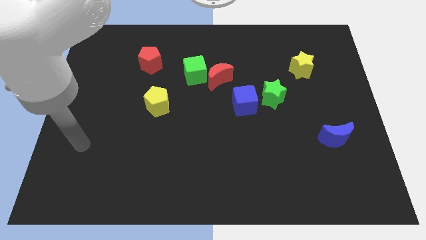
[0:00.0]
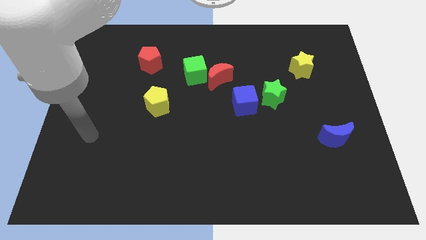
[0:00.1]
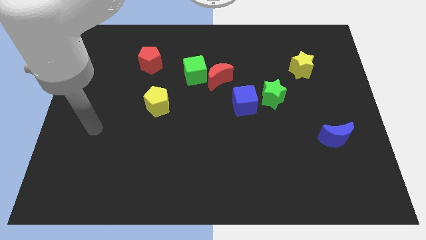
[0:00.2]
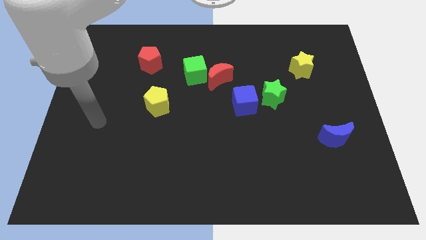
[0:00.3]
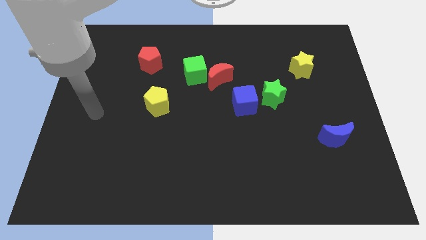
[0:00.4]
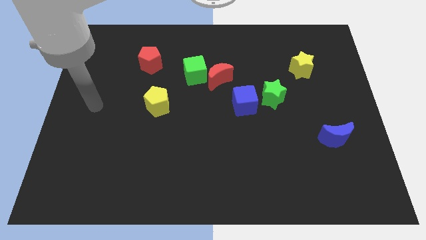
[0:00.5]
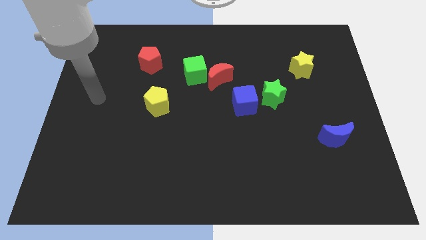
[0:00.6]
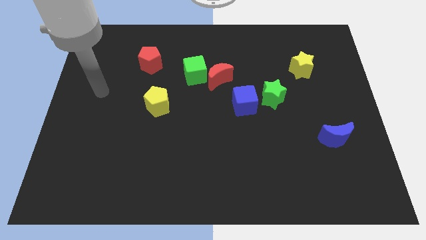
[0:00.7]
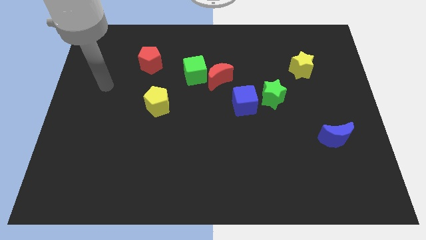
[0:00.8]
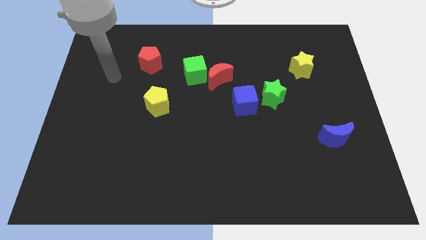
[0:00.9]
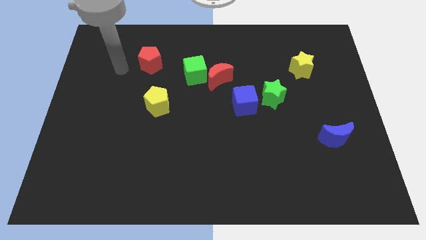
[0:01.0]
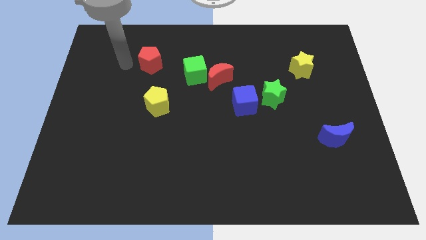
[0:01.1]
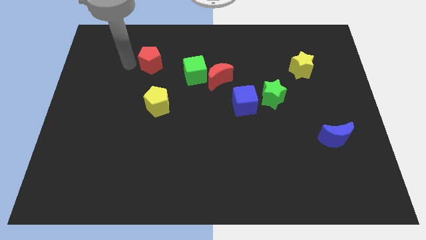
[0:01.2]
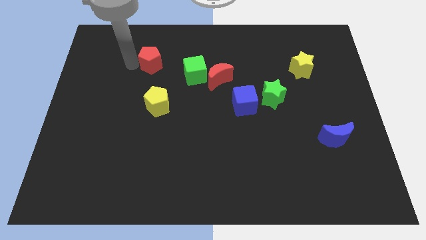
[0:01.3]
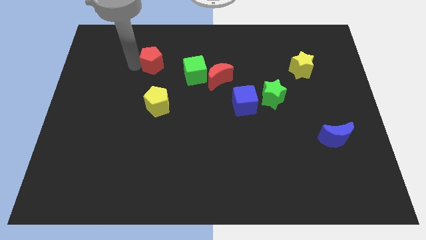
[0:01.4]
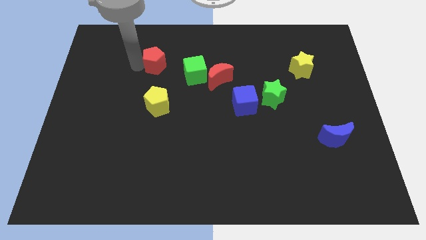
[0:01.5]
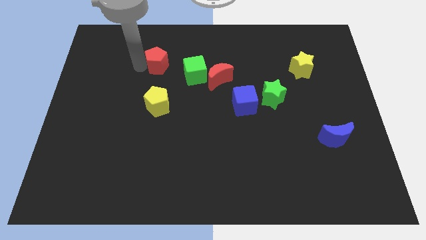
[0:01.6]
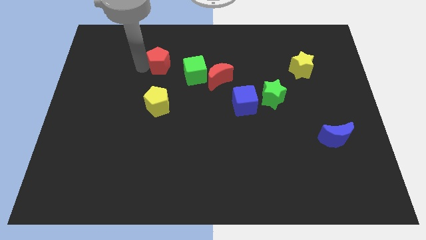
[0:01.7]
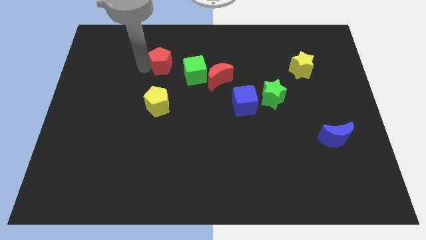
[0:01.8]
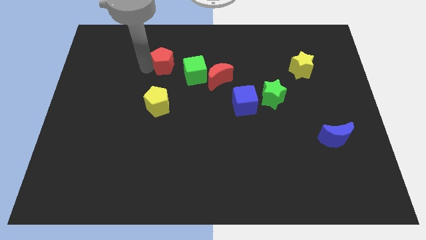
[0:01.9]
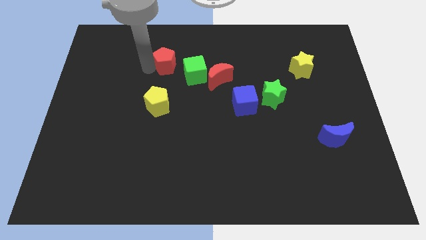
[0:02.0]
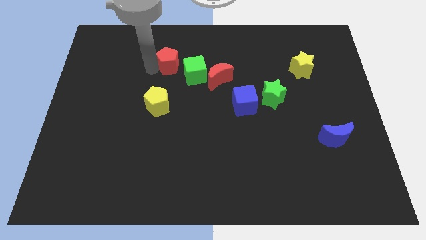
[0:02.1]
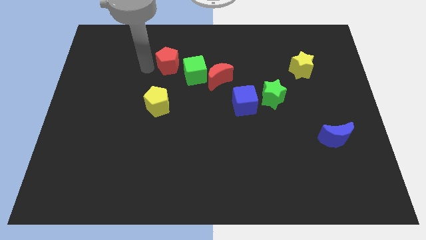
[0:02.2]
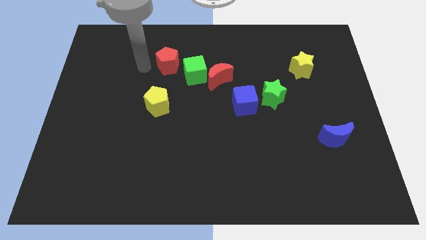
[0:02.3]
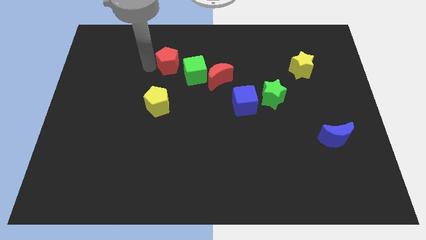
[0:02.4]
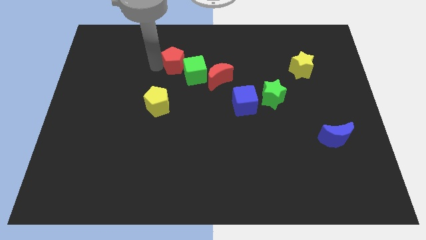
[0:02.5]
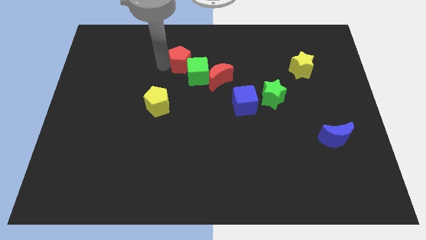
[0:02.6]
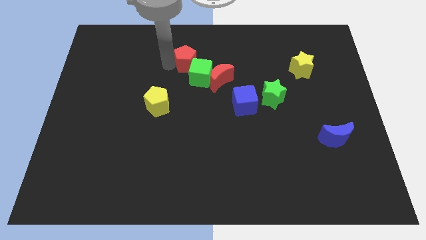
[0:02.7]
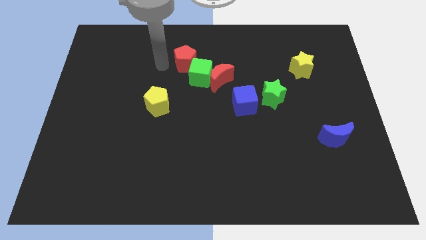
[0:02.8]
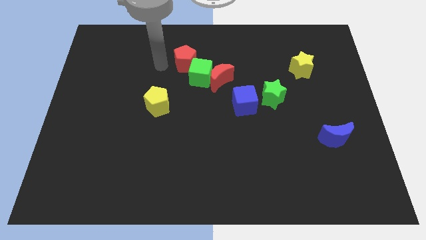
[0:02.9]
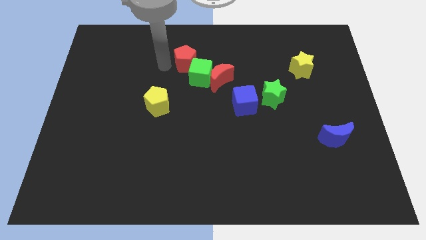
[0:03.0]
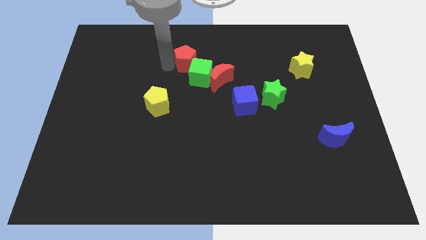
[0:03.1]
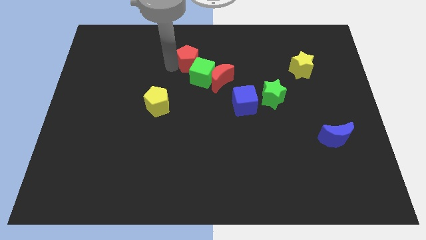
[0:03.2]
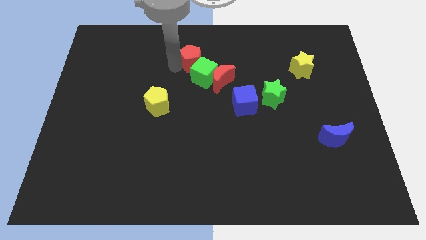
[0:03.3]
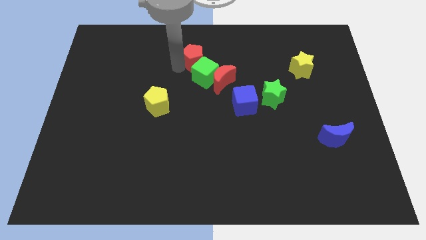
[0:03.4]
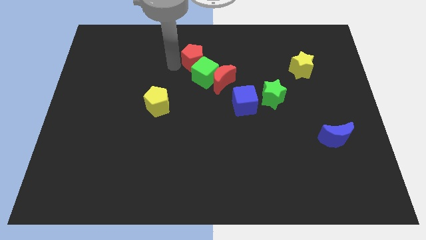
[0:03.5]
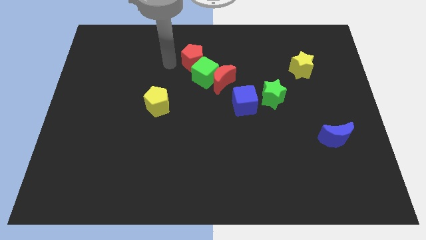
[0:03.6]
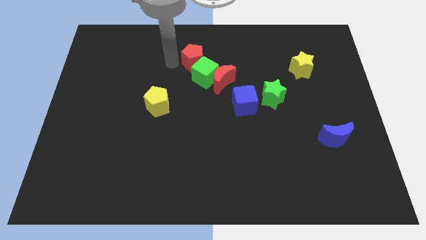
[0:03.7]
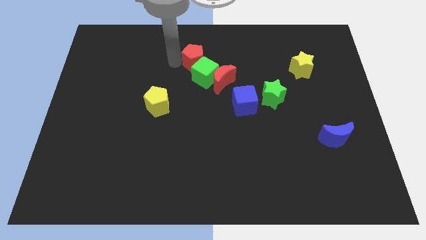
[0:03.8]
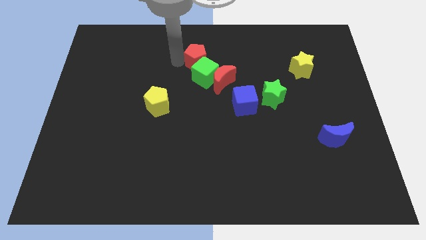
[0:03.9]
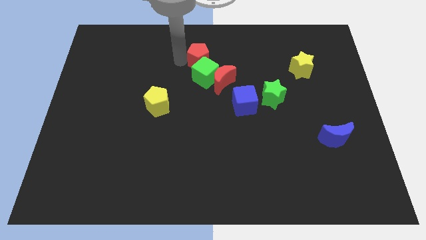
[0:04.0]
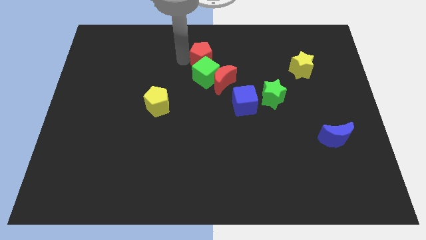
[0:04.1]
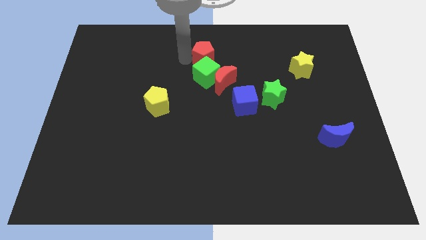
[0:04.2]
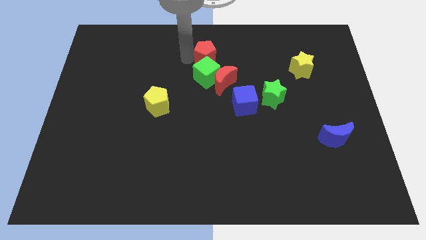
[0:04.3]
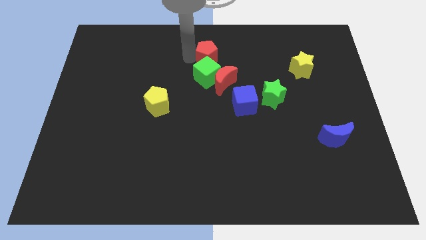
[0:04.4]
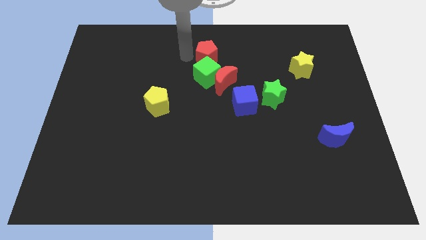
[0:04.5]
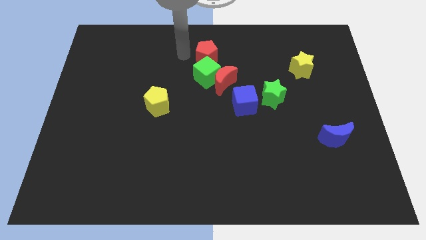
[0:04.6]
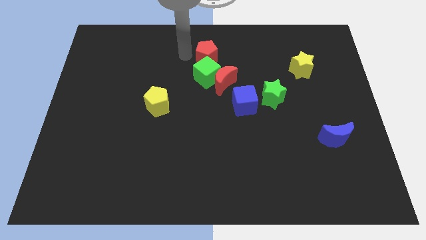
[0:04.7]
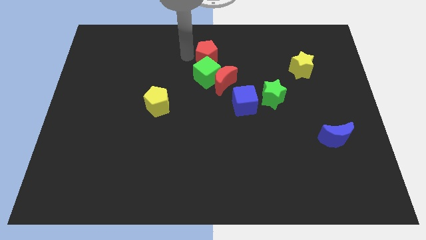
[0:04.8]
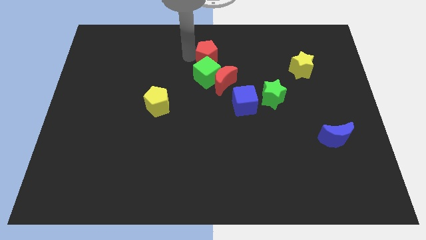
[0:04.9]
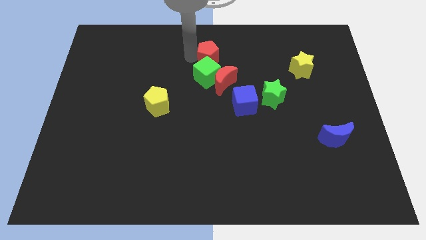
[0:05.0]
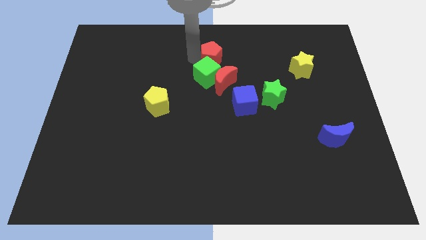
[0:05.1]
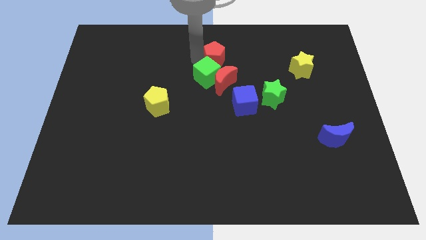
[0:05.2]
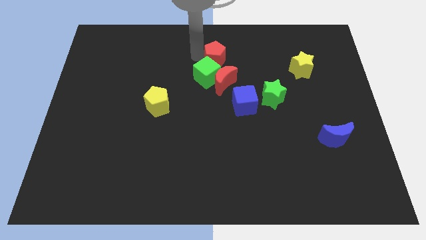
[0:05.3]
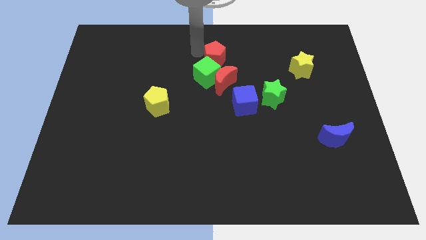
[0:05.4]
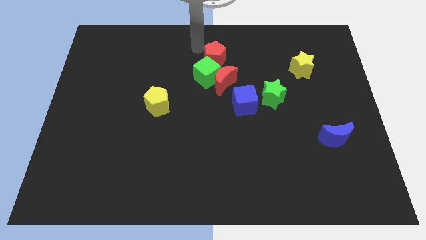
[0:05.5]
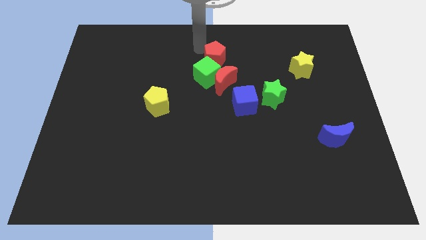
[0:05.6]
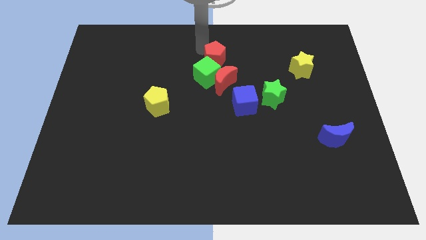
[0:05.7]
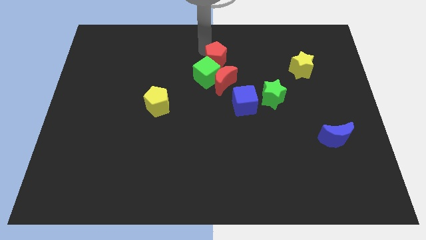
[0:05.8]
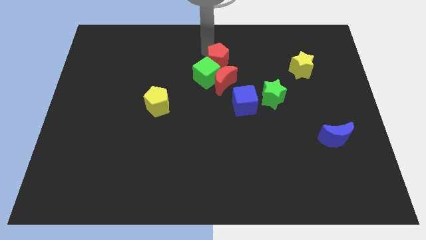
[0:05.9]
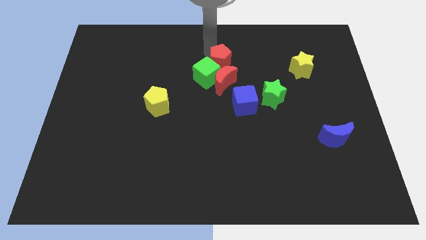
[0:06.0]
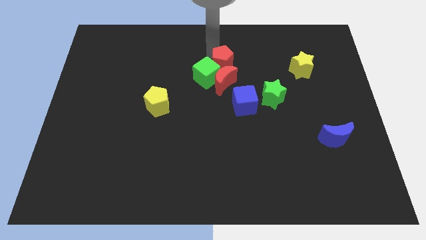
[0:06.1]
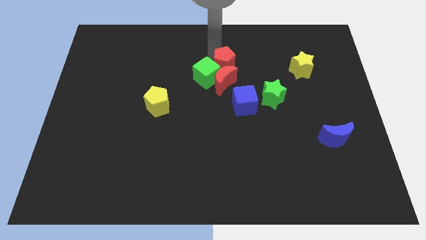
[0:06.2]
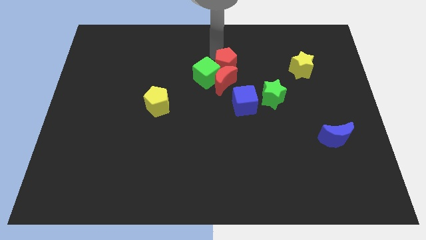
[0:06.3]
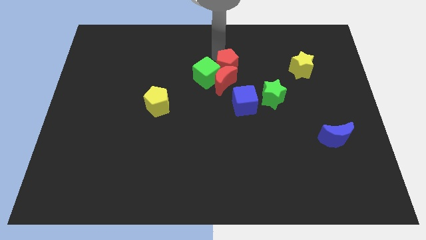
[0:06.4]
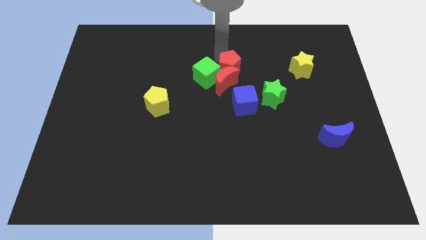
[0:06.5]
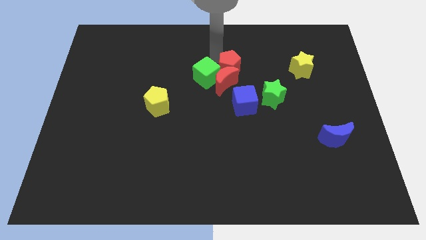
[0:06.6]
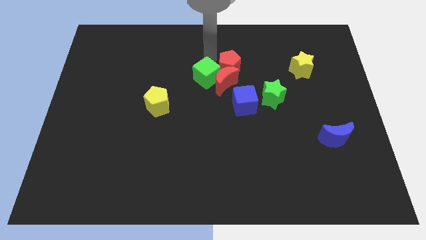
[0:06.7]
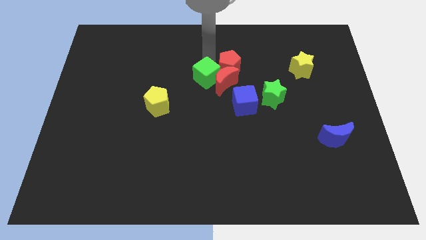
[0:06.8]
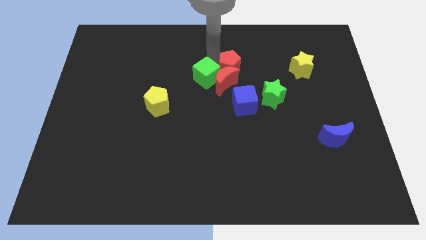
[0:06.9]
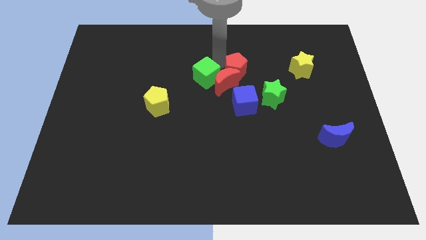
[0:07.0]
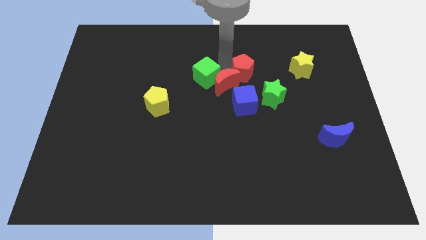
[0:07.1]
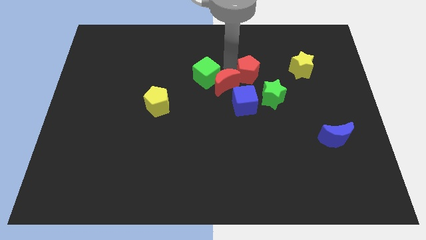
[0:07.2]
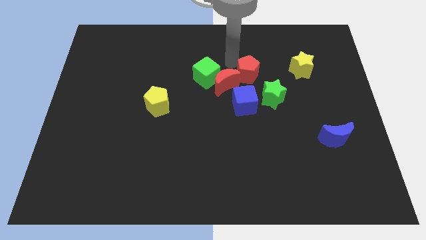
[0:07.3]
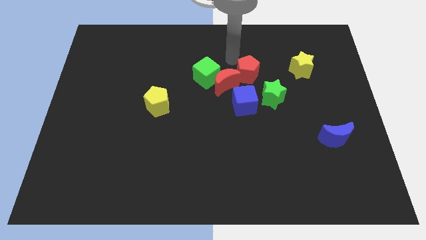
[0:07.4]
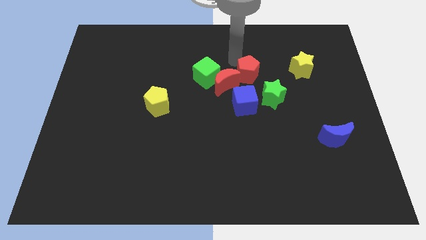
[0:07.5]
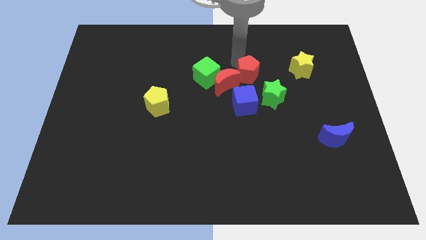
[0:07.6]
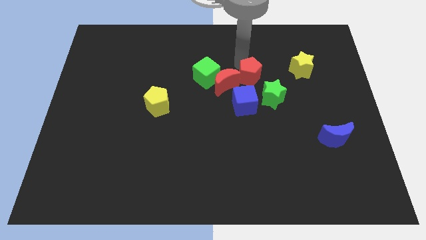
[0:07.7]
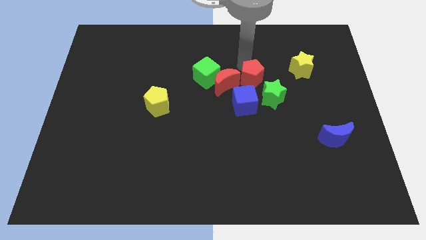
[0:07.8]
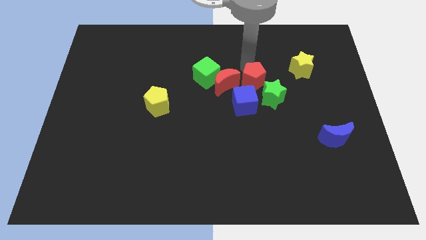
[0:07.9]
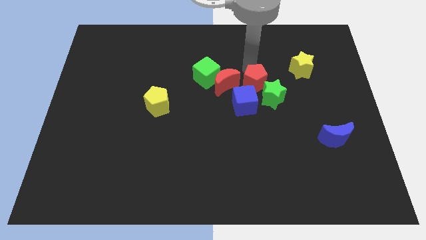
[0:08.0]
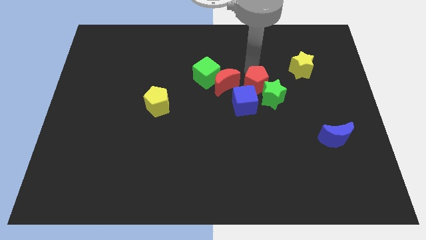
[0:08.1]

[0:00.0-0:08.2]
put the red pentagon close to the green star
